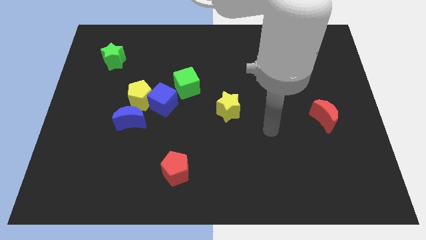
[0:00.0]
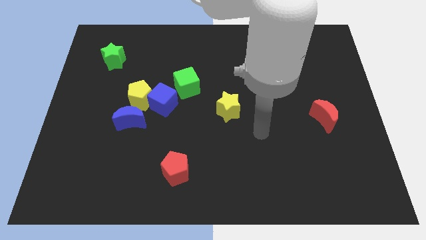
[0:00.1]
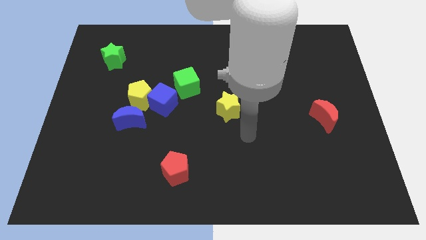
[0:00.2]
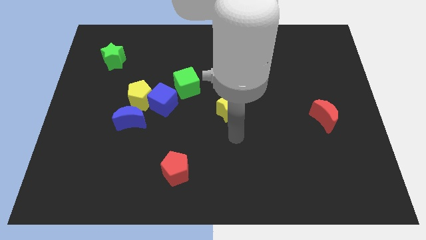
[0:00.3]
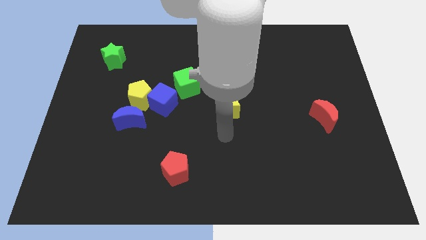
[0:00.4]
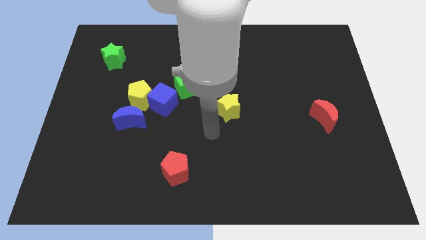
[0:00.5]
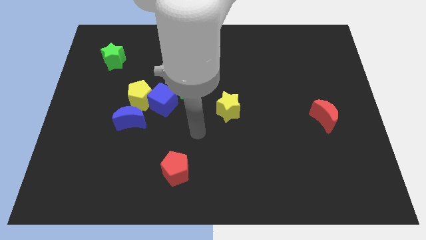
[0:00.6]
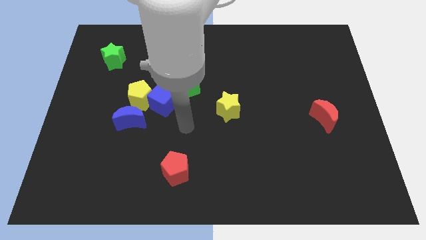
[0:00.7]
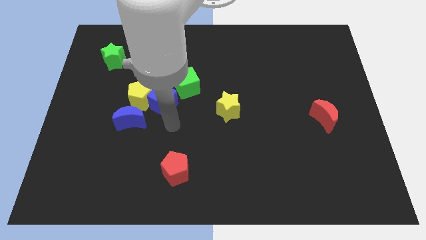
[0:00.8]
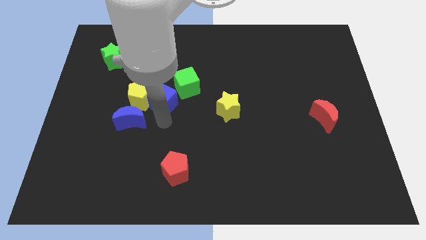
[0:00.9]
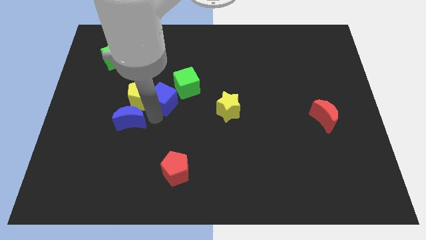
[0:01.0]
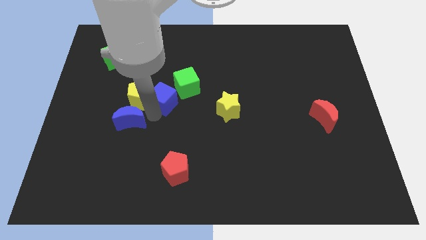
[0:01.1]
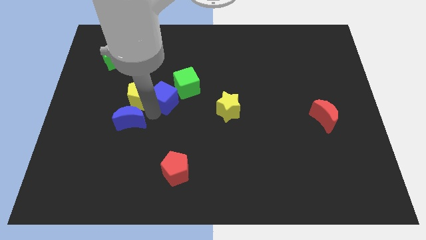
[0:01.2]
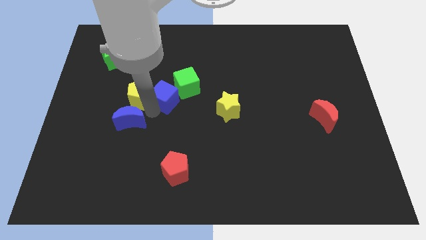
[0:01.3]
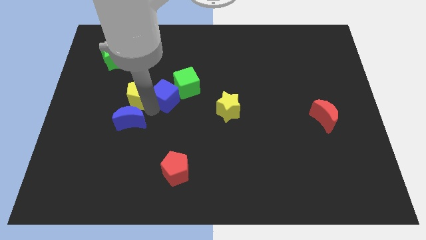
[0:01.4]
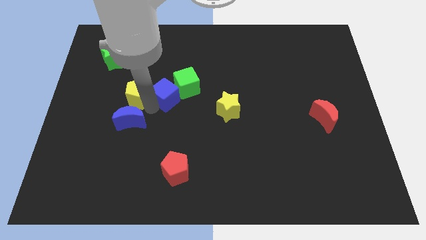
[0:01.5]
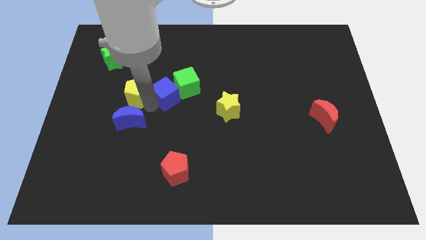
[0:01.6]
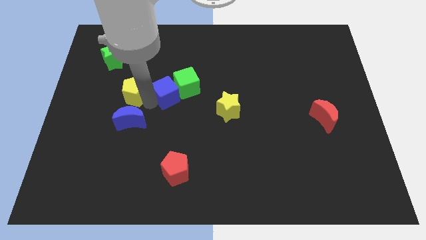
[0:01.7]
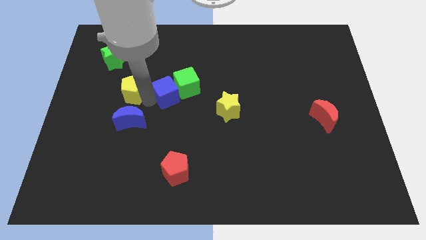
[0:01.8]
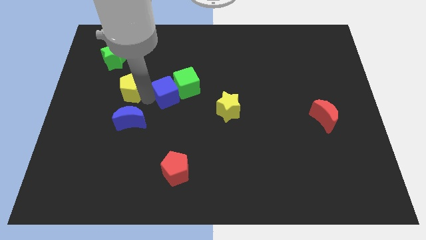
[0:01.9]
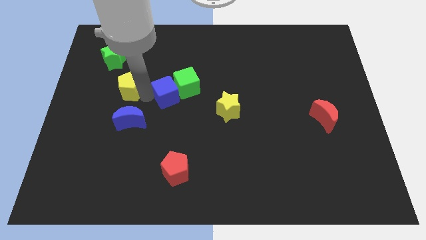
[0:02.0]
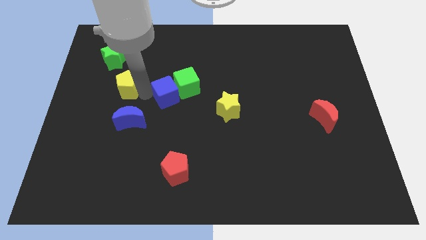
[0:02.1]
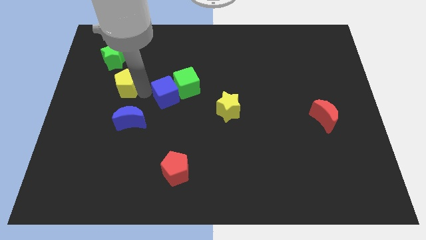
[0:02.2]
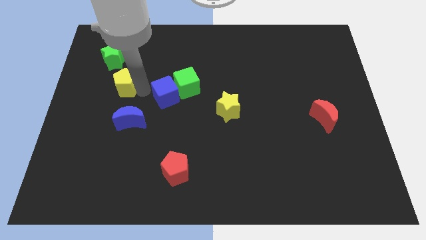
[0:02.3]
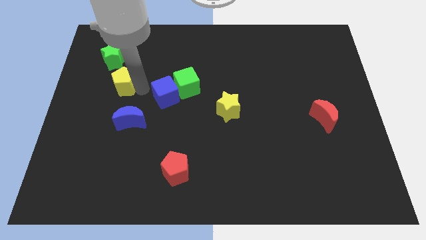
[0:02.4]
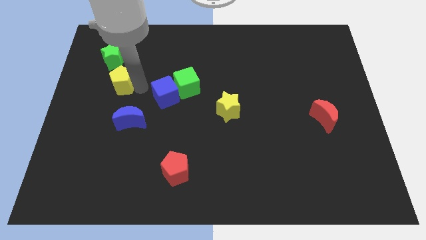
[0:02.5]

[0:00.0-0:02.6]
separate the yellow pentagon from the blue cube and blue moon

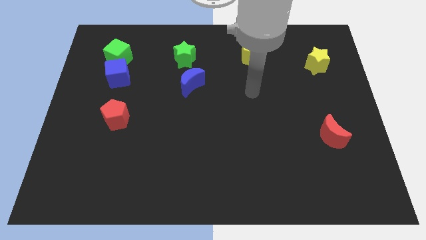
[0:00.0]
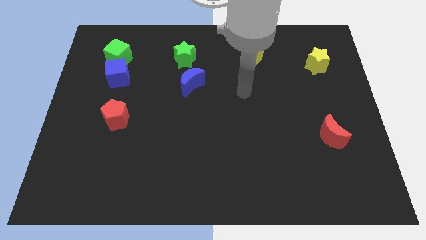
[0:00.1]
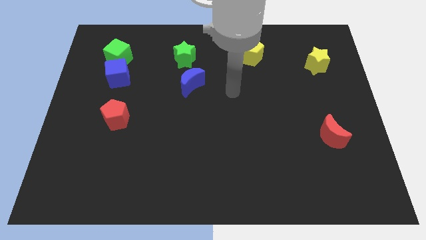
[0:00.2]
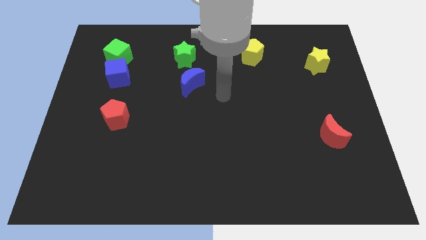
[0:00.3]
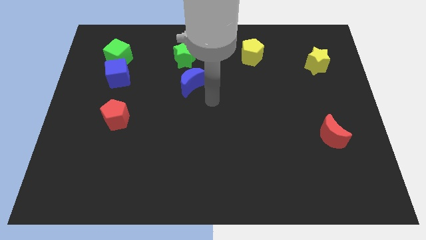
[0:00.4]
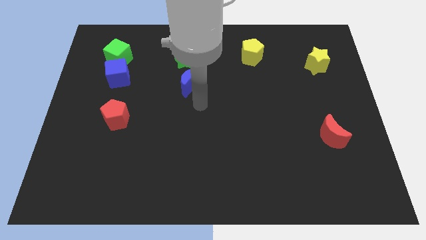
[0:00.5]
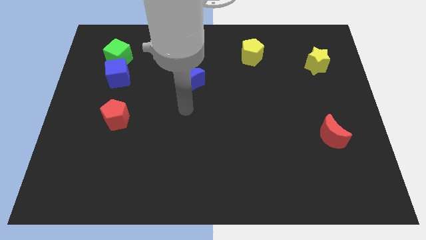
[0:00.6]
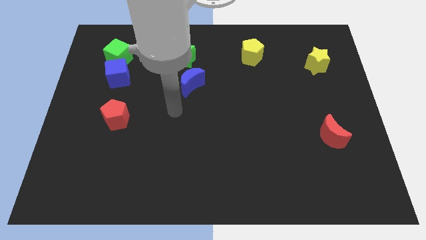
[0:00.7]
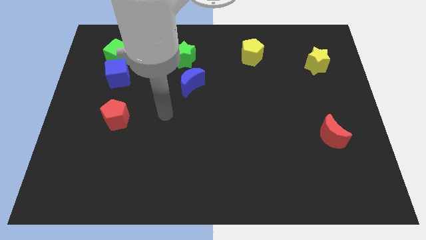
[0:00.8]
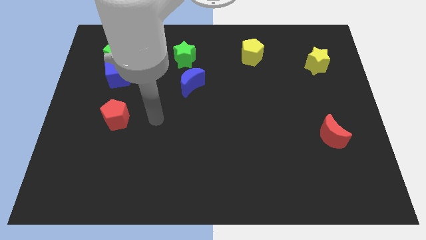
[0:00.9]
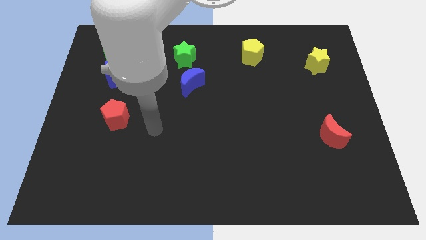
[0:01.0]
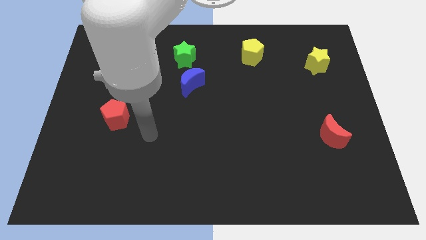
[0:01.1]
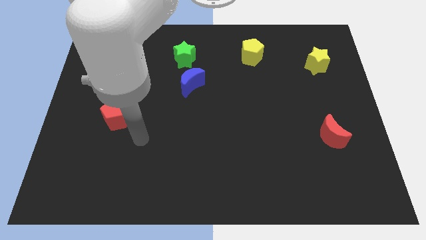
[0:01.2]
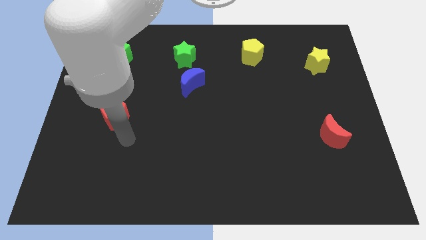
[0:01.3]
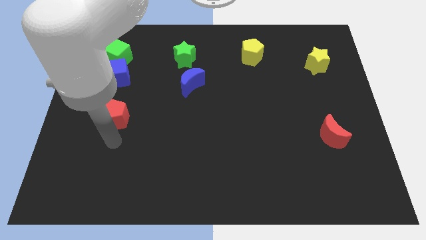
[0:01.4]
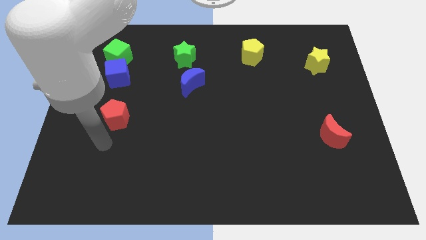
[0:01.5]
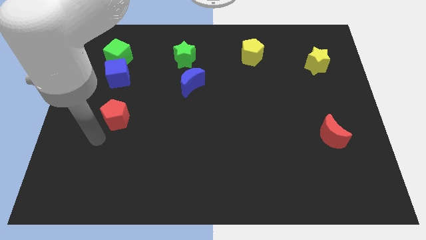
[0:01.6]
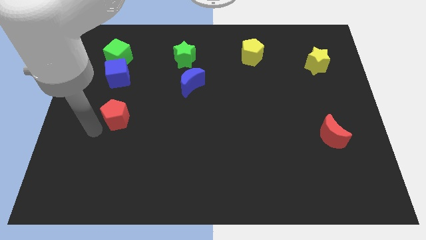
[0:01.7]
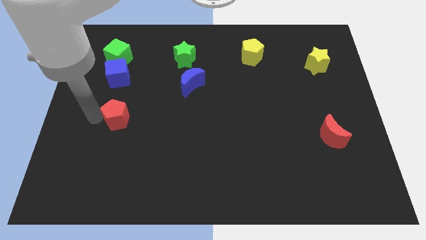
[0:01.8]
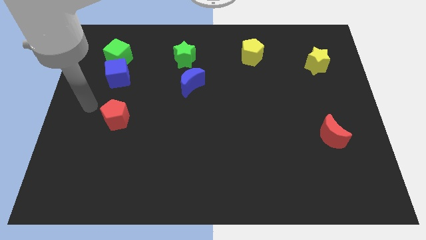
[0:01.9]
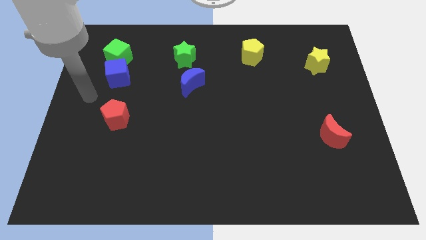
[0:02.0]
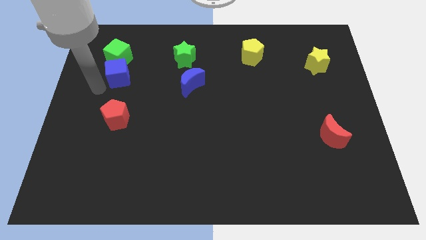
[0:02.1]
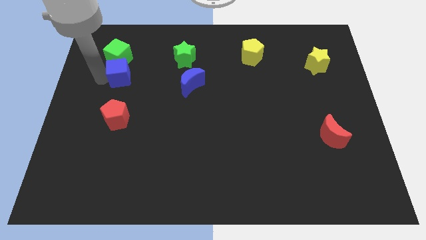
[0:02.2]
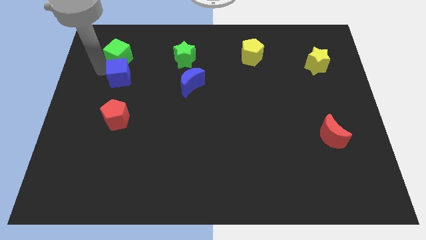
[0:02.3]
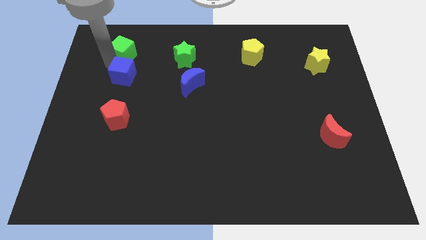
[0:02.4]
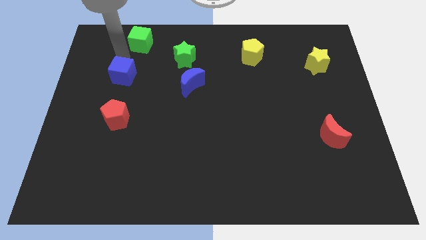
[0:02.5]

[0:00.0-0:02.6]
pull the blue cube apart from the green cube

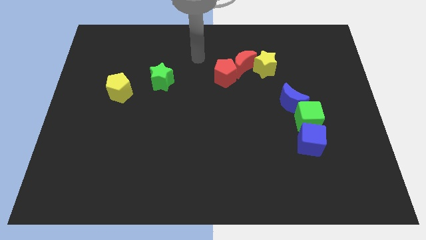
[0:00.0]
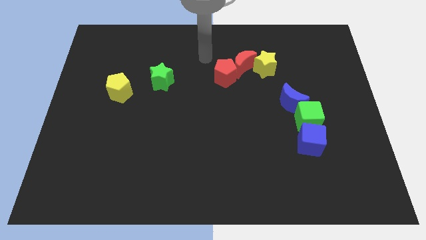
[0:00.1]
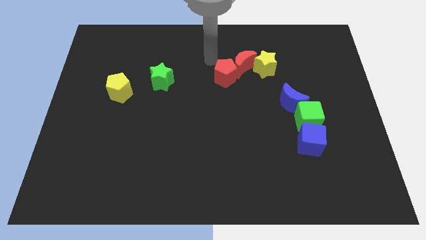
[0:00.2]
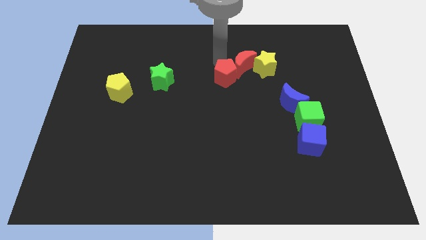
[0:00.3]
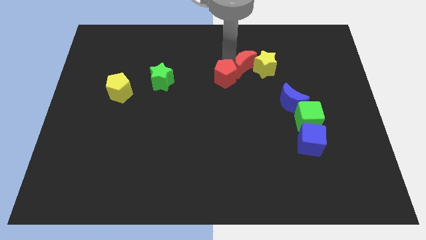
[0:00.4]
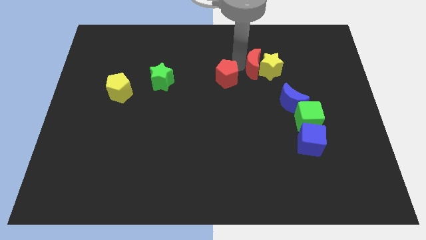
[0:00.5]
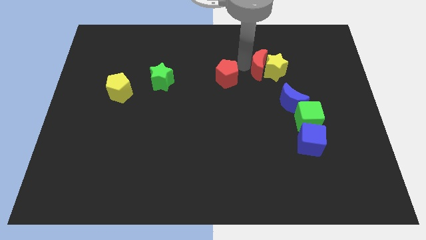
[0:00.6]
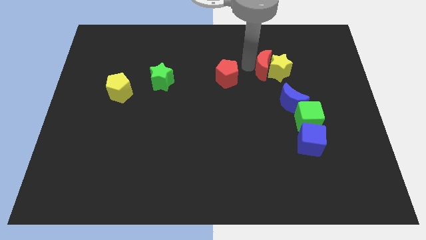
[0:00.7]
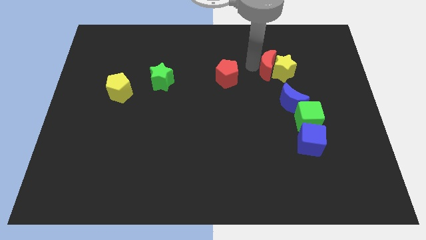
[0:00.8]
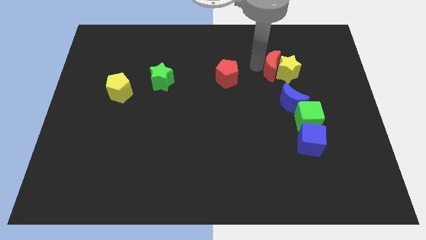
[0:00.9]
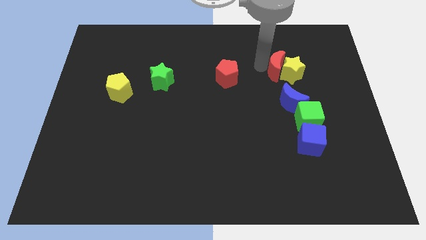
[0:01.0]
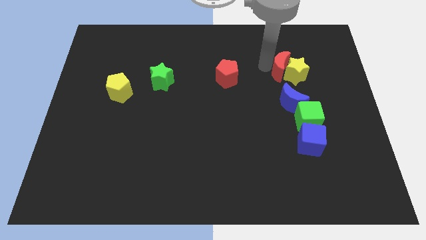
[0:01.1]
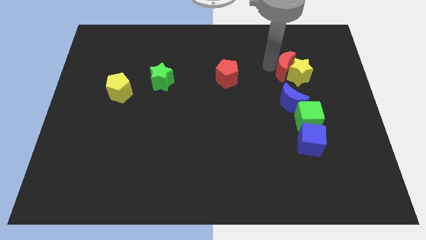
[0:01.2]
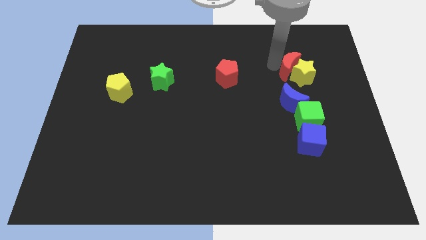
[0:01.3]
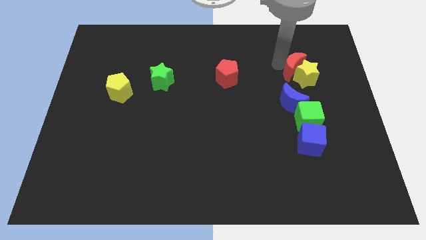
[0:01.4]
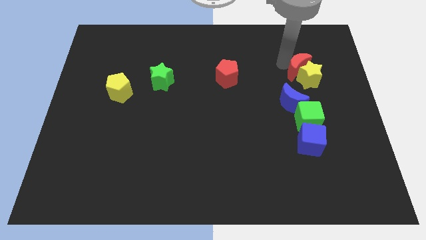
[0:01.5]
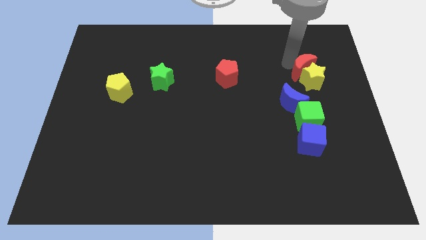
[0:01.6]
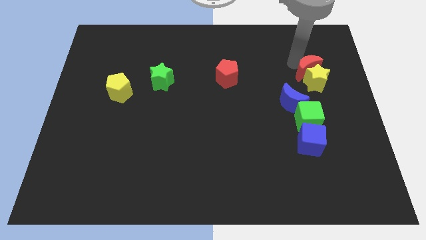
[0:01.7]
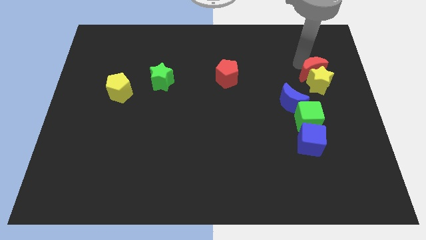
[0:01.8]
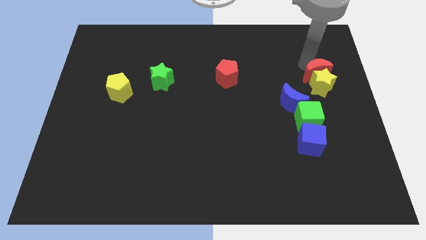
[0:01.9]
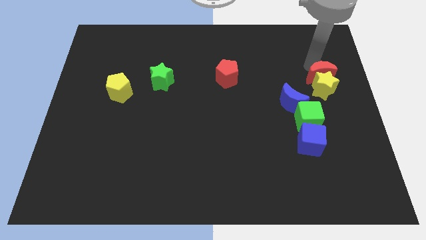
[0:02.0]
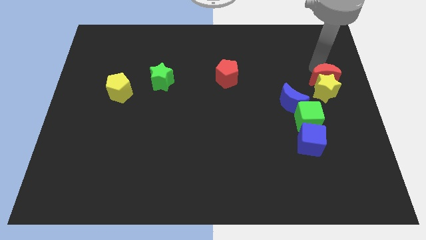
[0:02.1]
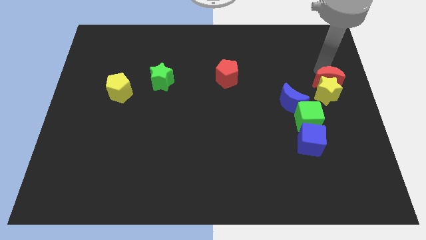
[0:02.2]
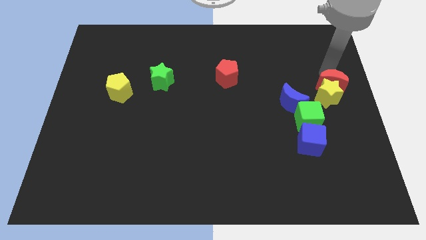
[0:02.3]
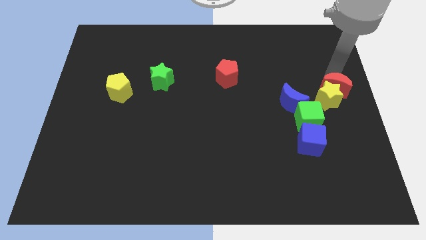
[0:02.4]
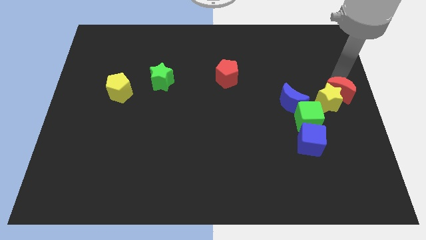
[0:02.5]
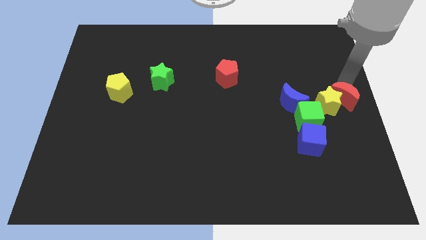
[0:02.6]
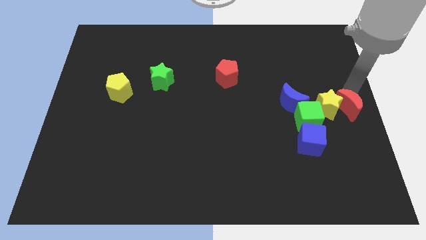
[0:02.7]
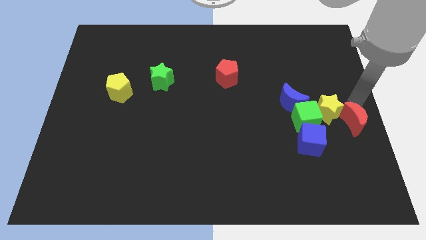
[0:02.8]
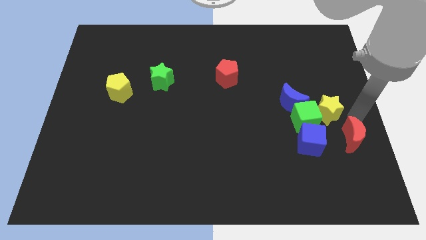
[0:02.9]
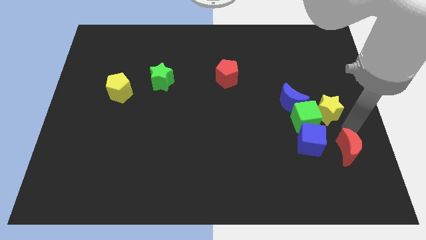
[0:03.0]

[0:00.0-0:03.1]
separate the yellow star from the red moon

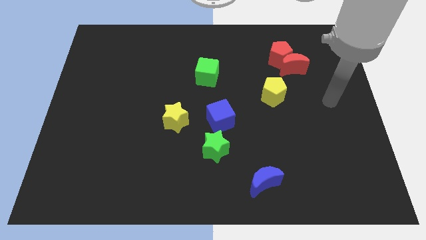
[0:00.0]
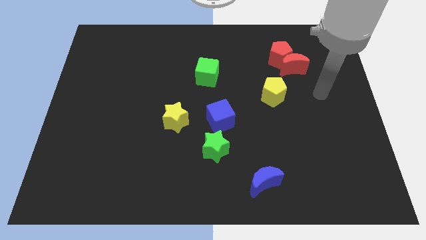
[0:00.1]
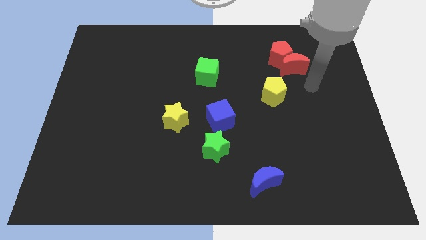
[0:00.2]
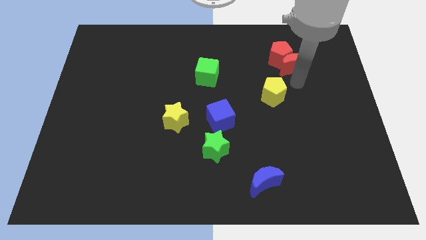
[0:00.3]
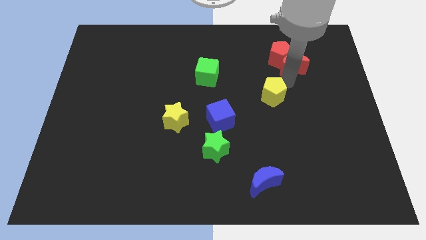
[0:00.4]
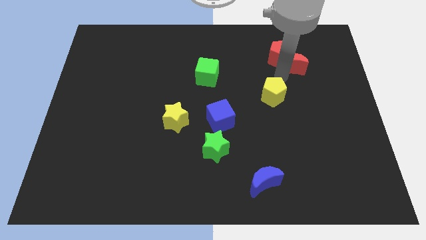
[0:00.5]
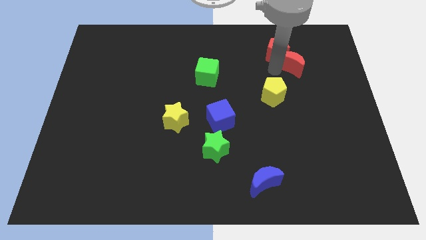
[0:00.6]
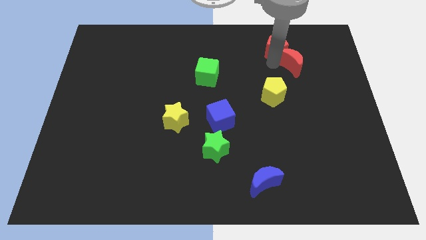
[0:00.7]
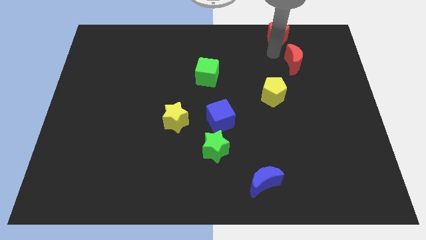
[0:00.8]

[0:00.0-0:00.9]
move the red moon away from the red pentagon

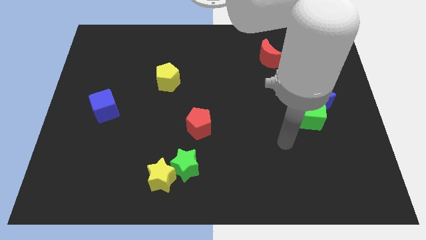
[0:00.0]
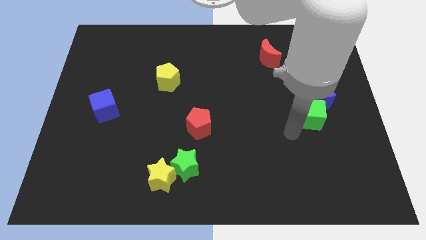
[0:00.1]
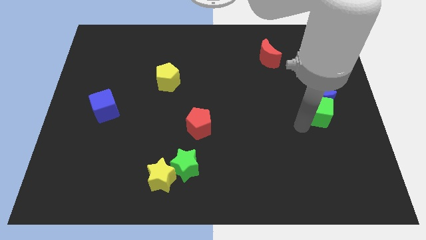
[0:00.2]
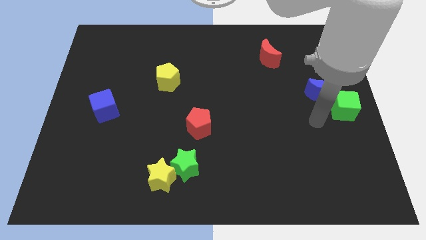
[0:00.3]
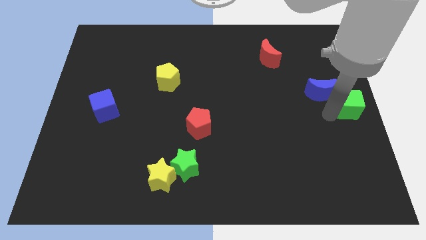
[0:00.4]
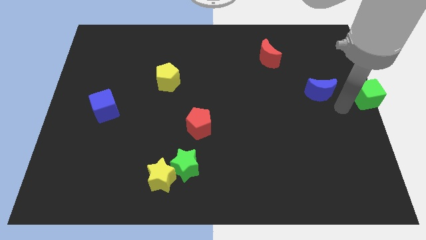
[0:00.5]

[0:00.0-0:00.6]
pull the blue moon apart from the green cube
